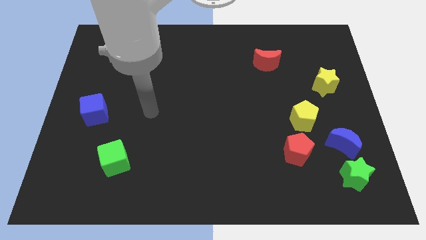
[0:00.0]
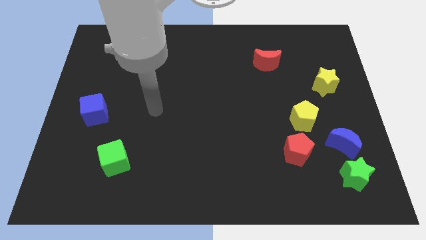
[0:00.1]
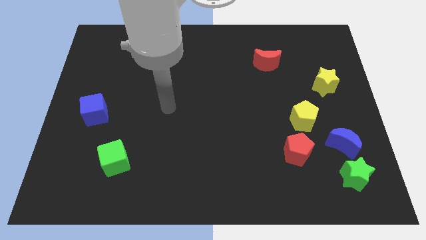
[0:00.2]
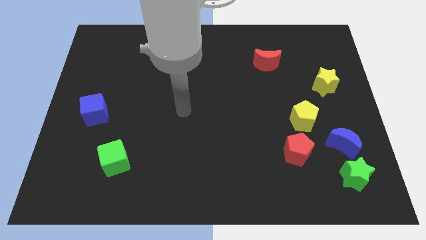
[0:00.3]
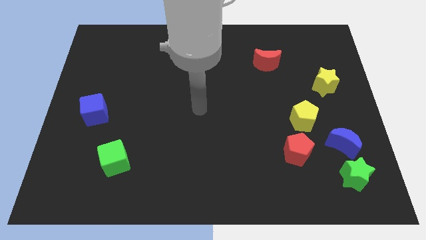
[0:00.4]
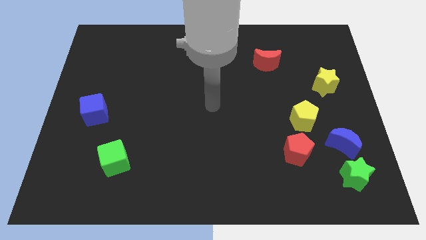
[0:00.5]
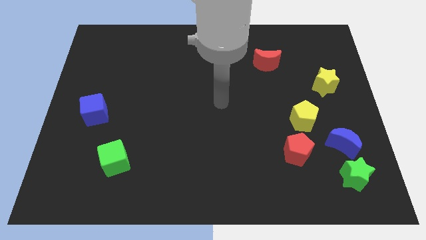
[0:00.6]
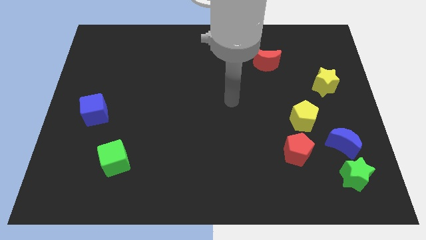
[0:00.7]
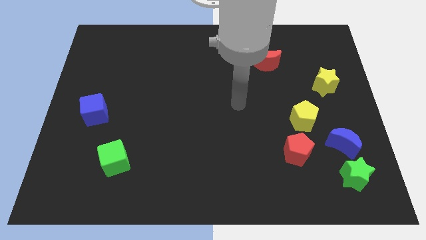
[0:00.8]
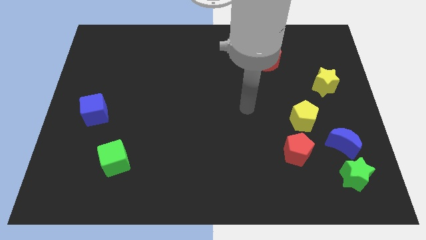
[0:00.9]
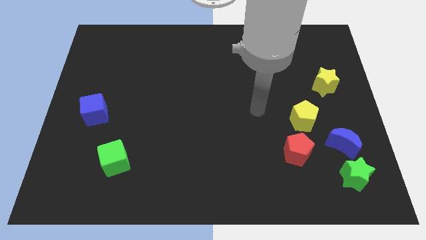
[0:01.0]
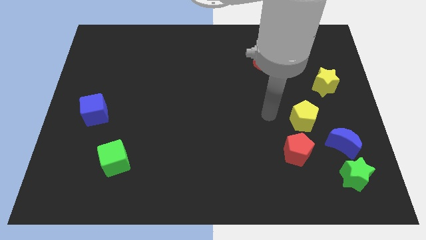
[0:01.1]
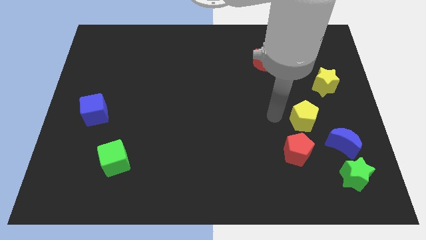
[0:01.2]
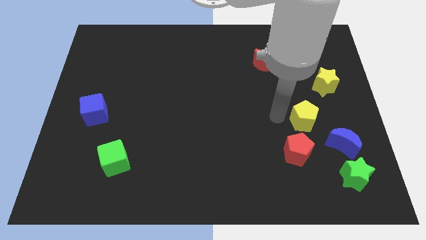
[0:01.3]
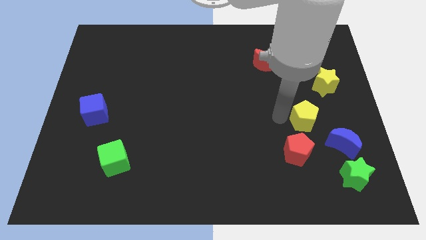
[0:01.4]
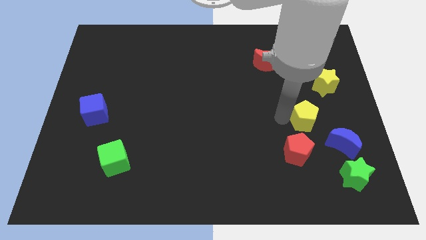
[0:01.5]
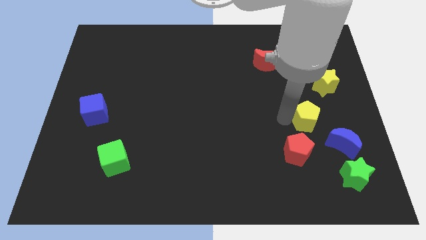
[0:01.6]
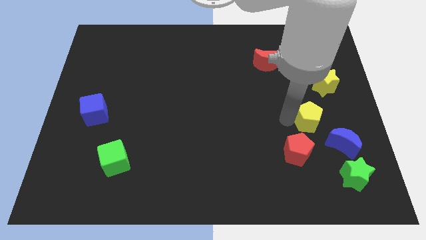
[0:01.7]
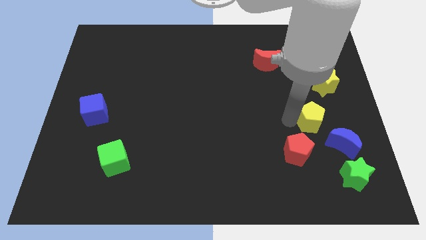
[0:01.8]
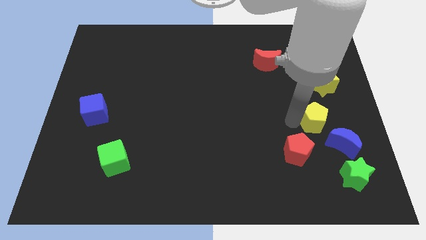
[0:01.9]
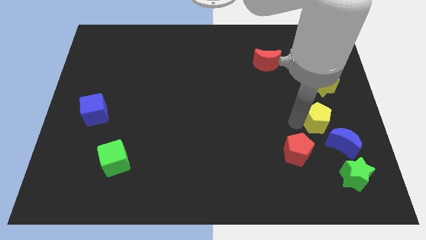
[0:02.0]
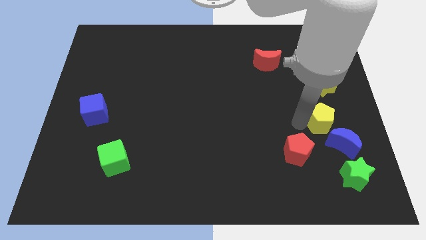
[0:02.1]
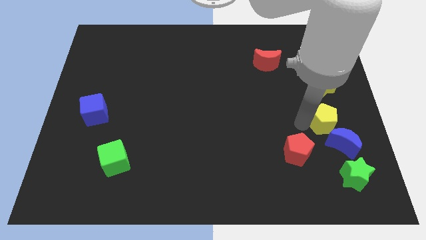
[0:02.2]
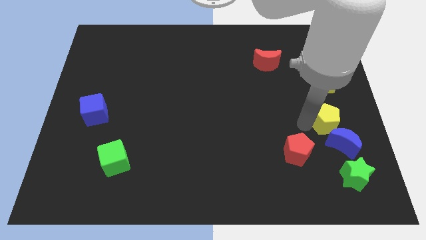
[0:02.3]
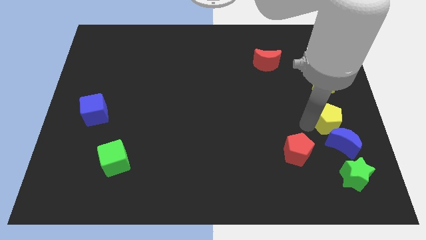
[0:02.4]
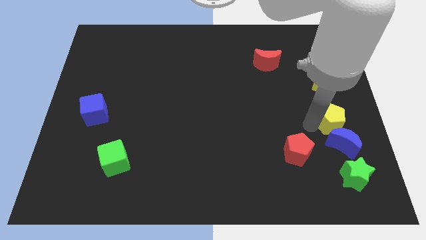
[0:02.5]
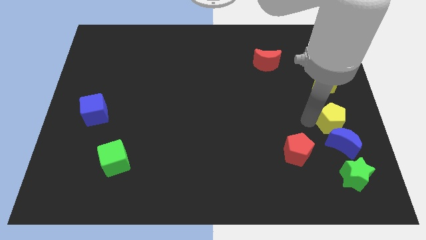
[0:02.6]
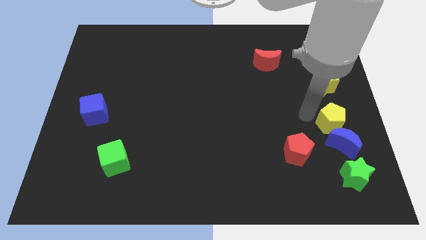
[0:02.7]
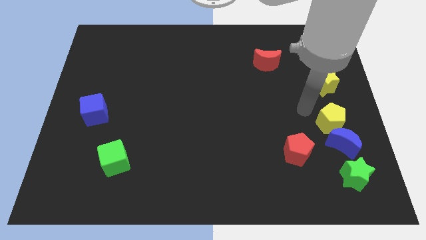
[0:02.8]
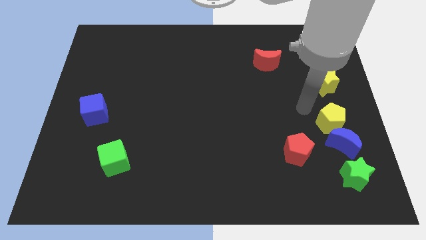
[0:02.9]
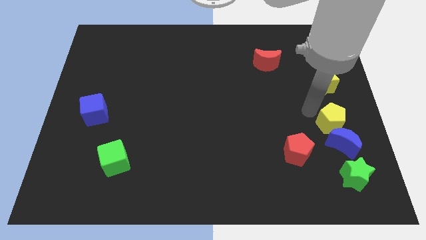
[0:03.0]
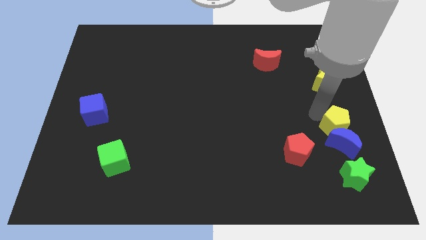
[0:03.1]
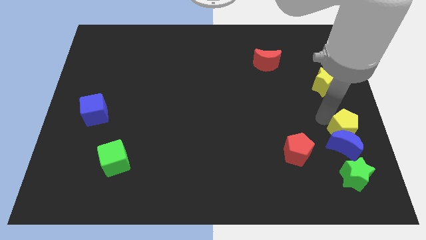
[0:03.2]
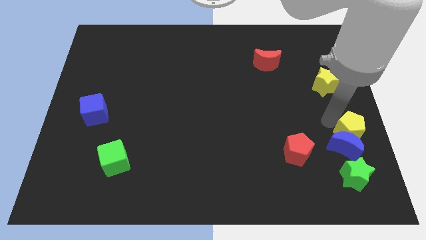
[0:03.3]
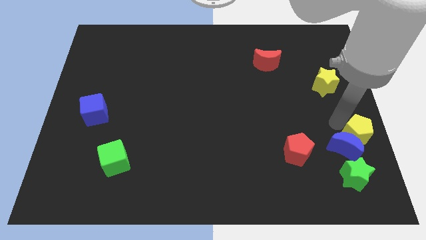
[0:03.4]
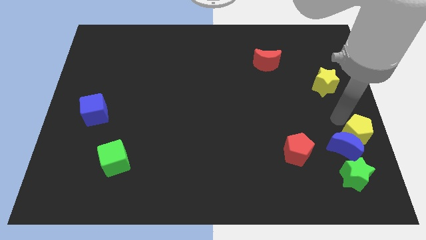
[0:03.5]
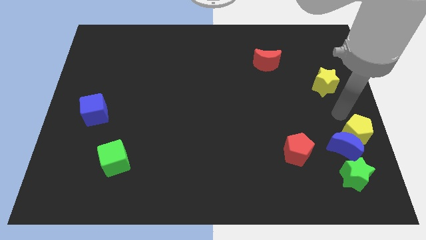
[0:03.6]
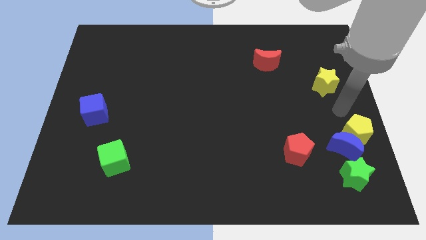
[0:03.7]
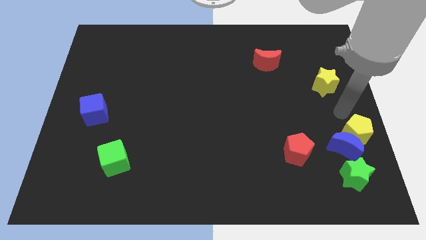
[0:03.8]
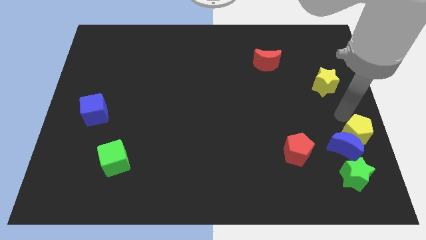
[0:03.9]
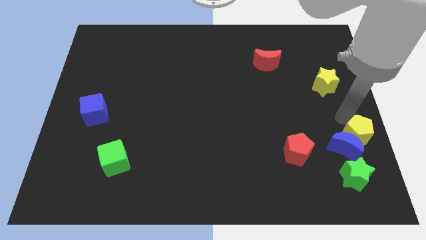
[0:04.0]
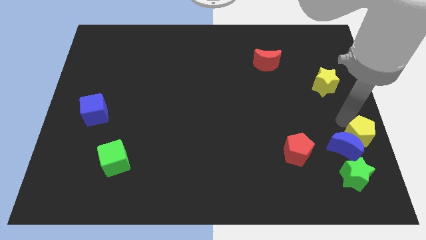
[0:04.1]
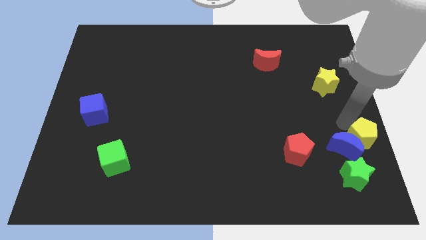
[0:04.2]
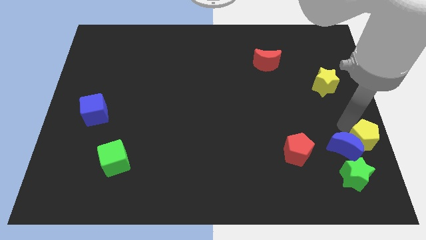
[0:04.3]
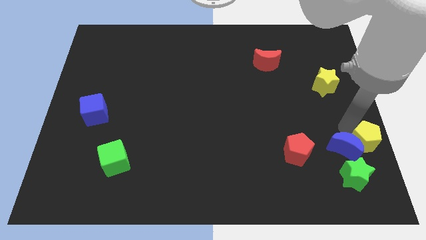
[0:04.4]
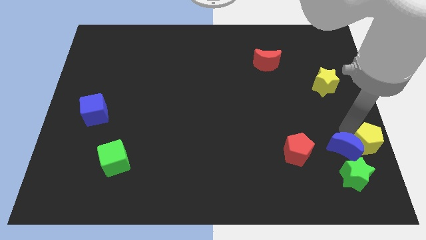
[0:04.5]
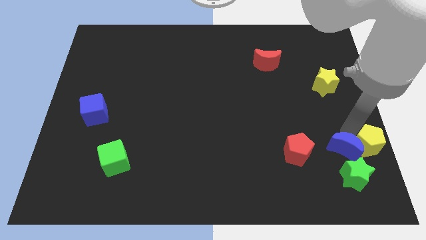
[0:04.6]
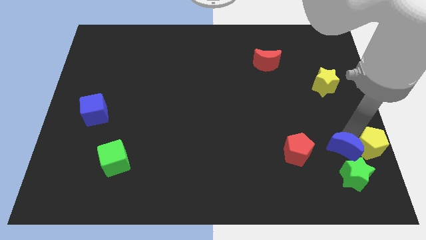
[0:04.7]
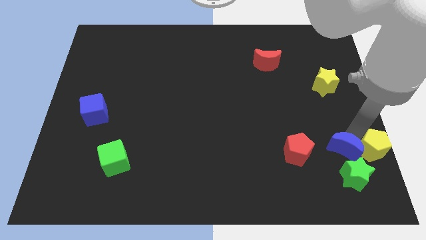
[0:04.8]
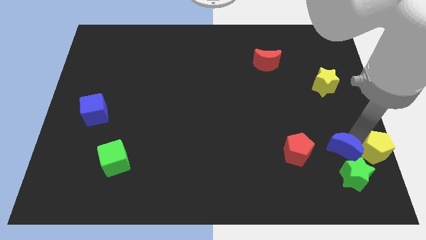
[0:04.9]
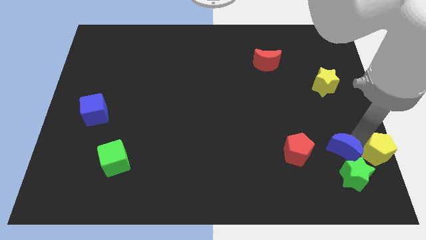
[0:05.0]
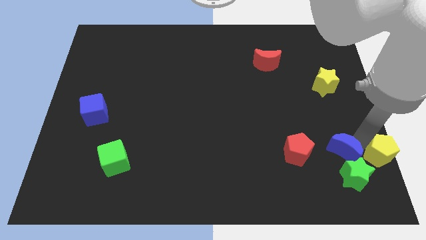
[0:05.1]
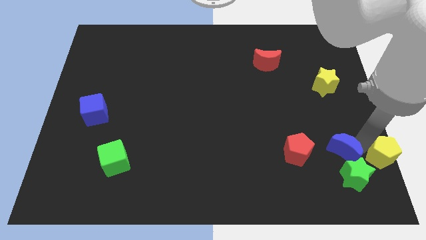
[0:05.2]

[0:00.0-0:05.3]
slide the yellow pentagon to the lower right corner

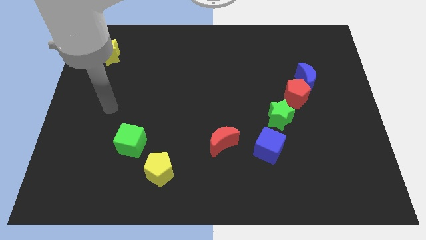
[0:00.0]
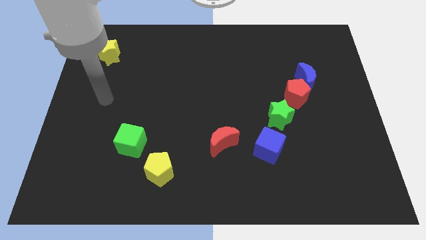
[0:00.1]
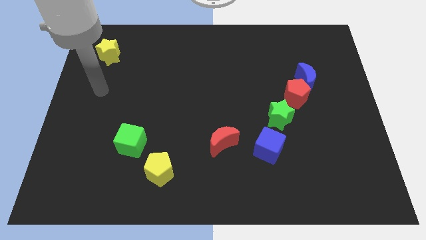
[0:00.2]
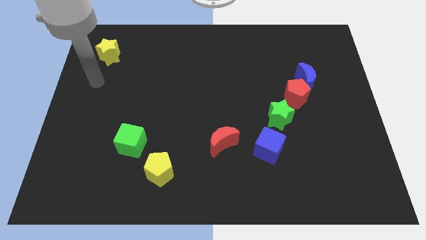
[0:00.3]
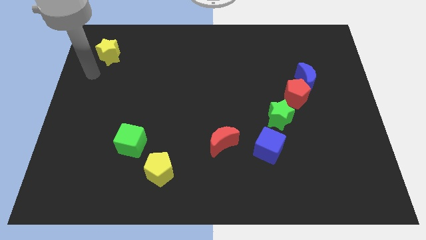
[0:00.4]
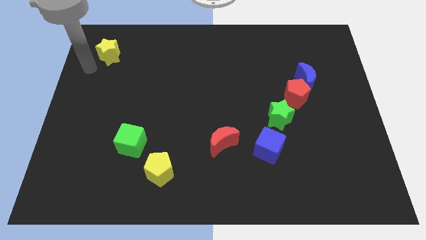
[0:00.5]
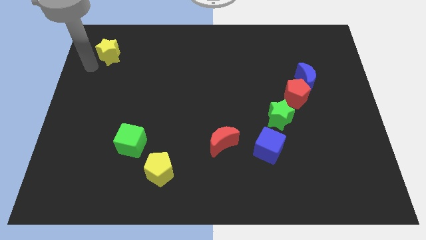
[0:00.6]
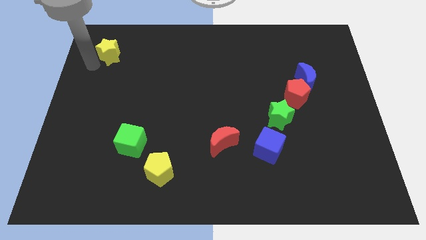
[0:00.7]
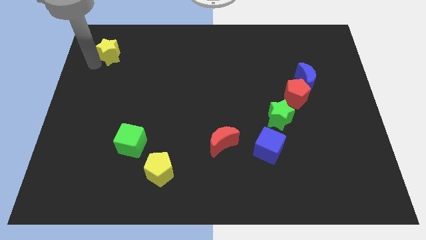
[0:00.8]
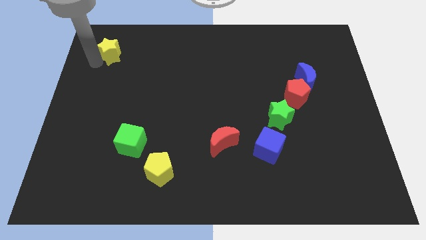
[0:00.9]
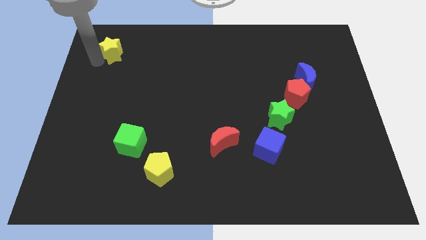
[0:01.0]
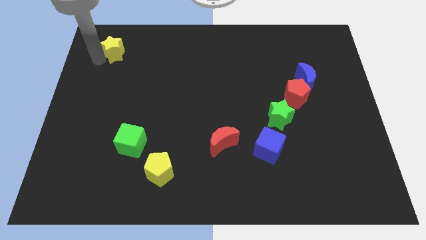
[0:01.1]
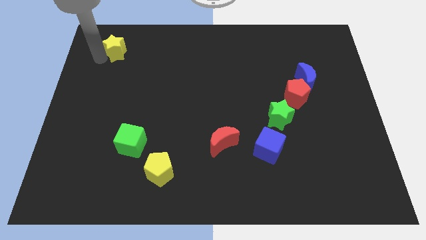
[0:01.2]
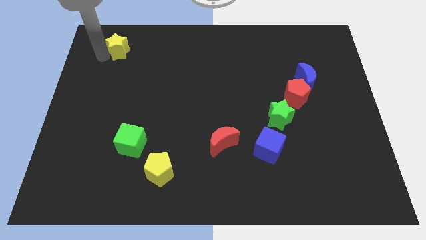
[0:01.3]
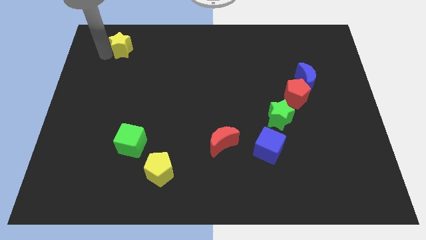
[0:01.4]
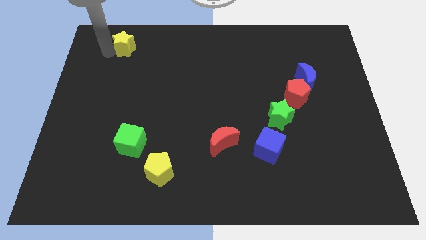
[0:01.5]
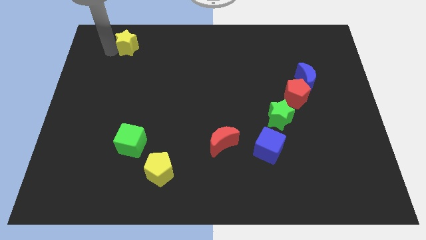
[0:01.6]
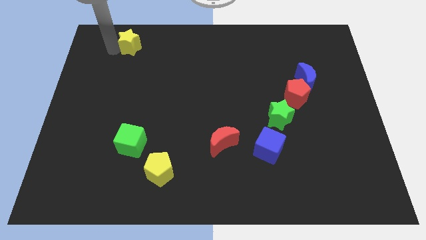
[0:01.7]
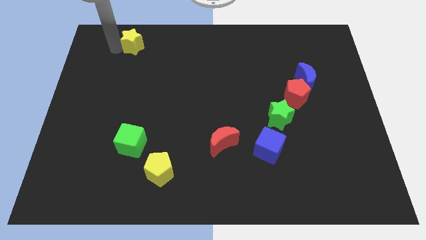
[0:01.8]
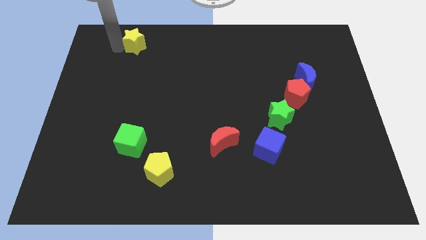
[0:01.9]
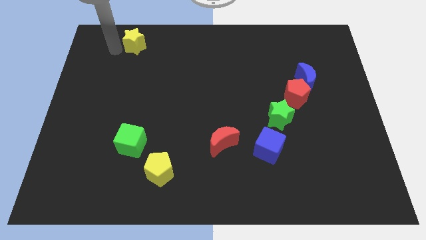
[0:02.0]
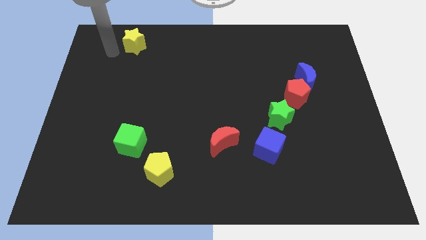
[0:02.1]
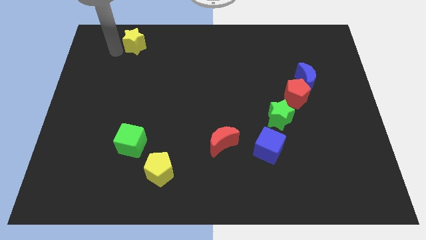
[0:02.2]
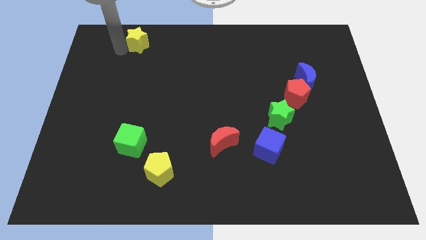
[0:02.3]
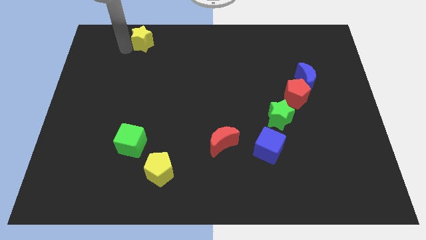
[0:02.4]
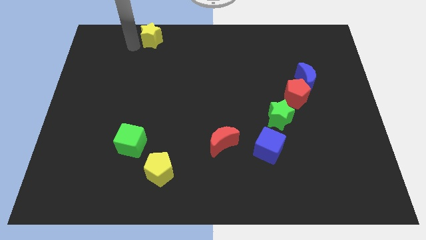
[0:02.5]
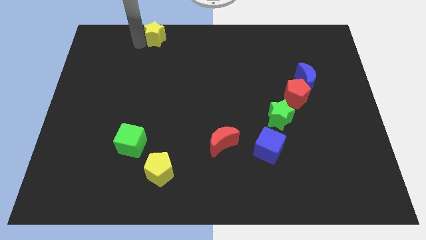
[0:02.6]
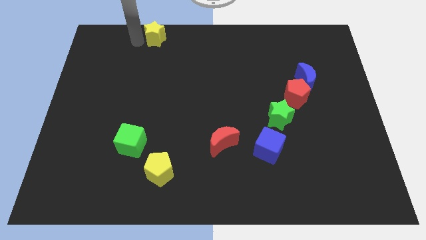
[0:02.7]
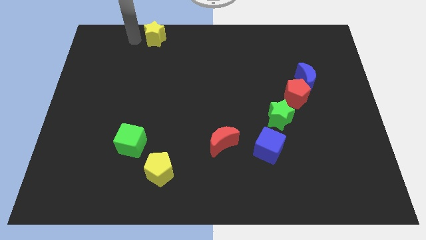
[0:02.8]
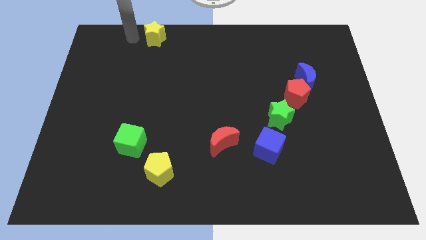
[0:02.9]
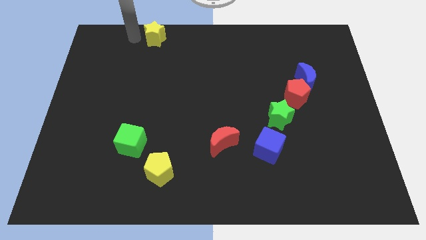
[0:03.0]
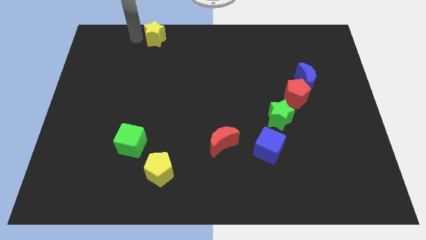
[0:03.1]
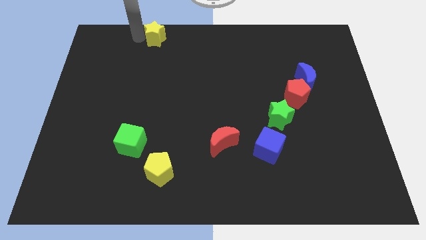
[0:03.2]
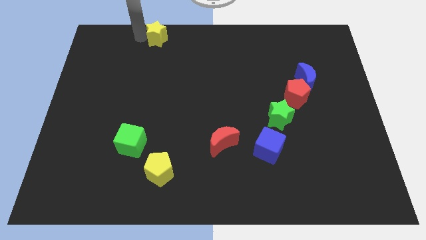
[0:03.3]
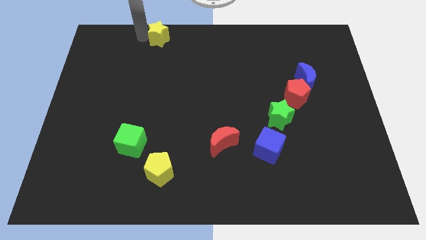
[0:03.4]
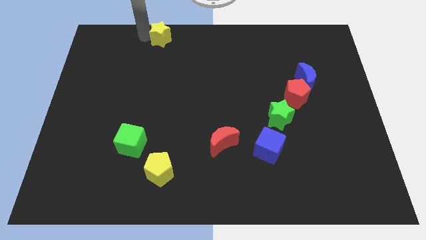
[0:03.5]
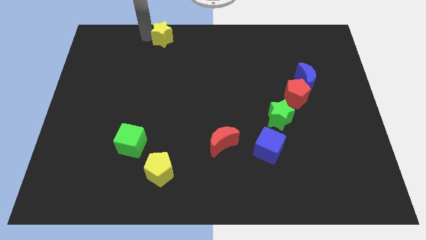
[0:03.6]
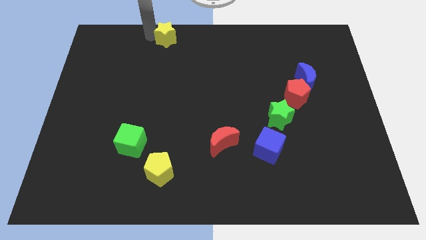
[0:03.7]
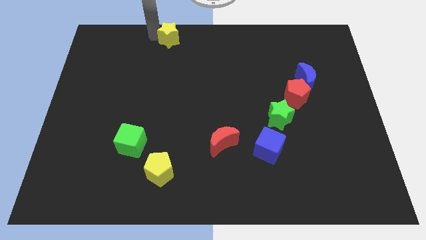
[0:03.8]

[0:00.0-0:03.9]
slide the yellow star to the top
